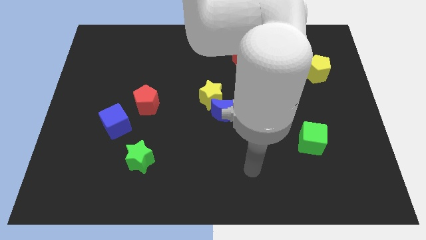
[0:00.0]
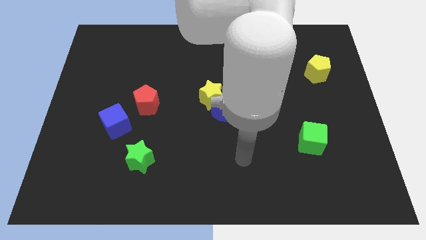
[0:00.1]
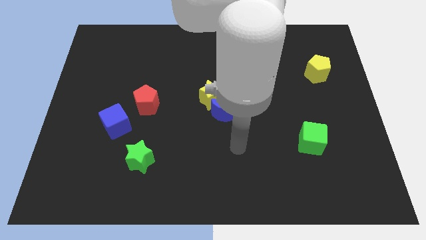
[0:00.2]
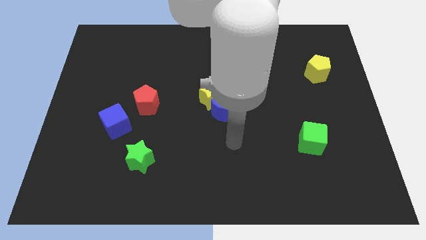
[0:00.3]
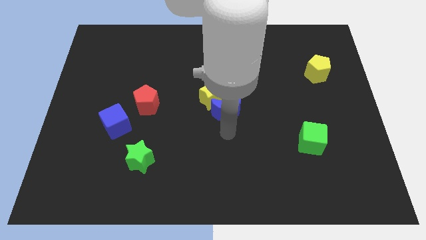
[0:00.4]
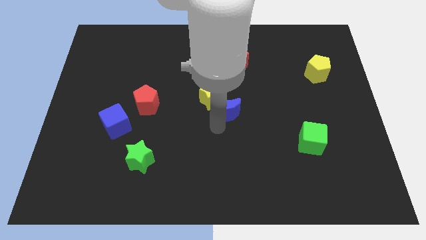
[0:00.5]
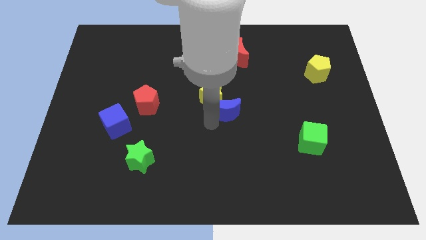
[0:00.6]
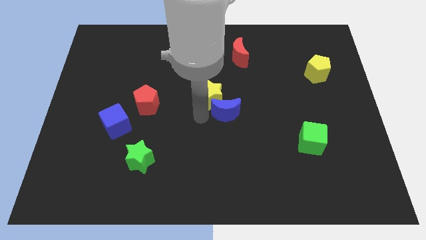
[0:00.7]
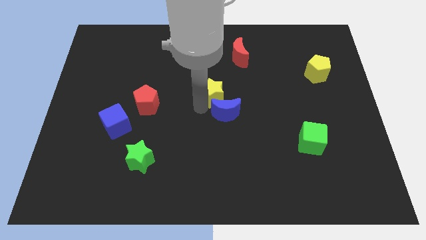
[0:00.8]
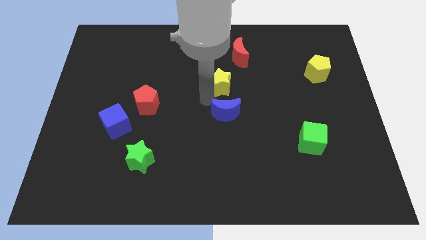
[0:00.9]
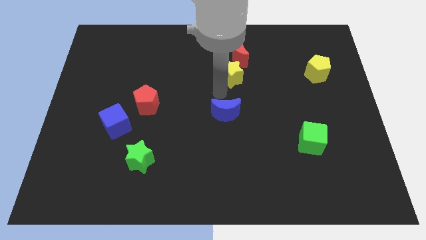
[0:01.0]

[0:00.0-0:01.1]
separate the blue moon from the yellow star

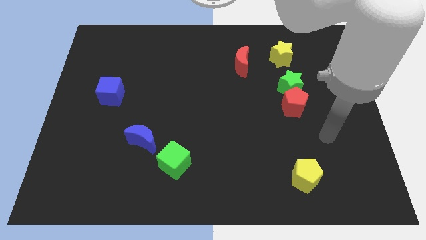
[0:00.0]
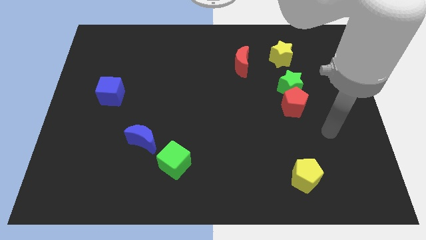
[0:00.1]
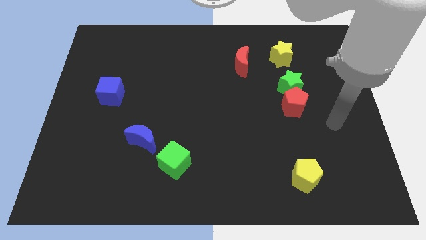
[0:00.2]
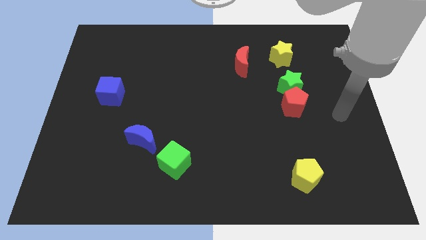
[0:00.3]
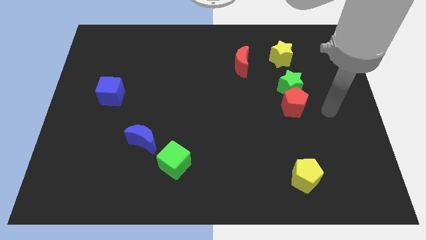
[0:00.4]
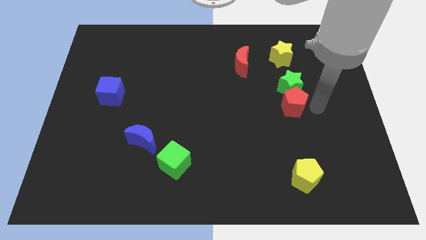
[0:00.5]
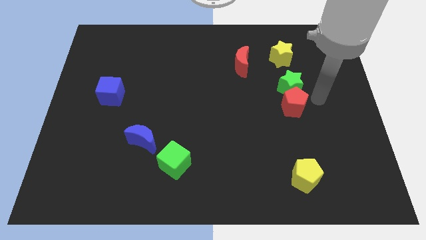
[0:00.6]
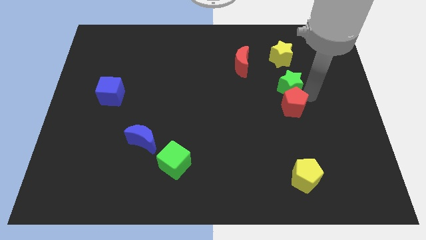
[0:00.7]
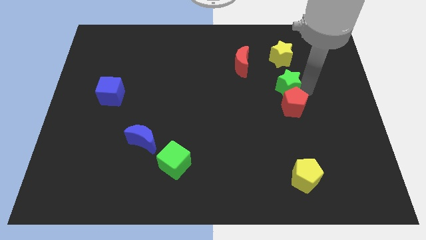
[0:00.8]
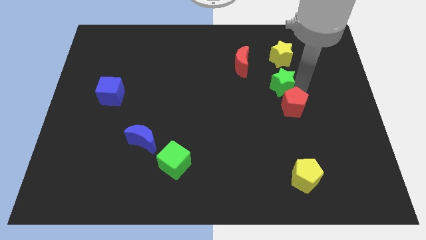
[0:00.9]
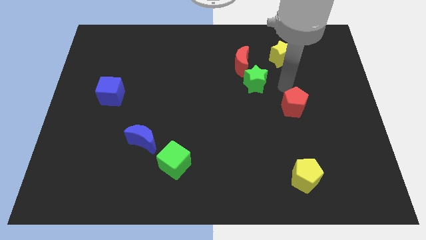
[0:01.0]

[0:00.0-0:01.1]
pull the red pentagon apart from the green star

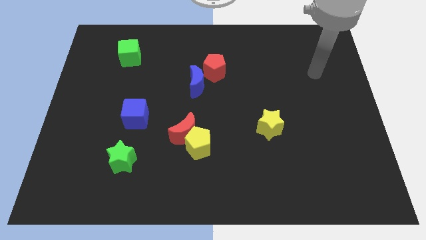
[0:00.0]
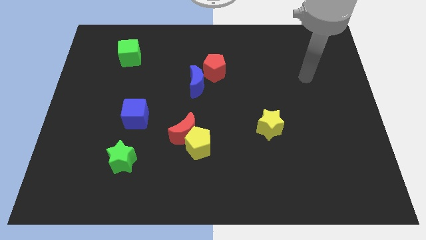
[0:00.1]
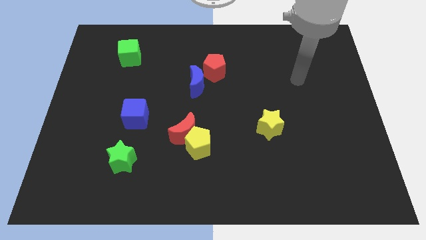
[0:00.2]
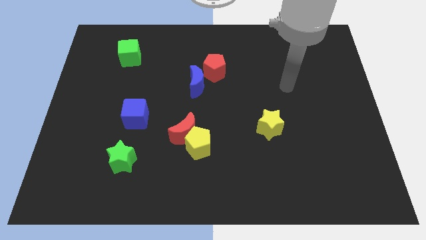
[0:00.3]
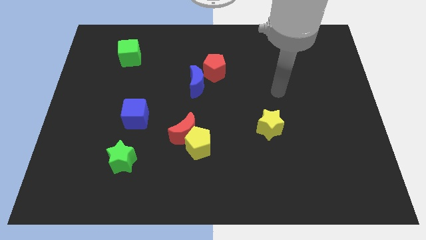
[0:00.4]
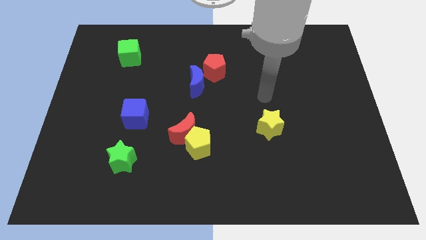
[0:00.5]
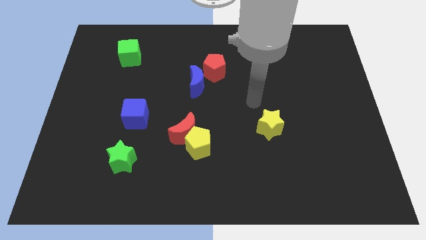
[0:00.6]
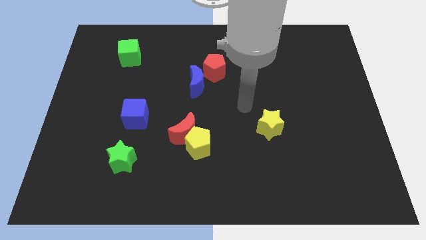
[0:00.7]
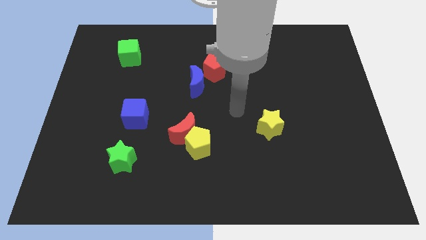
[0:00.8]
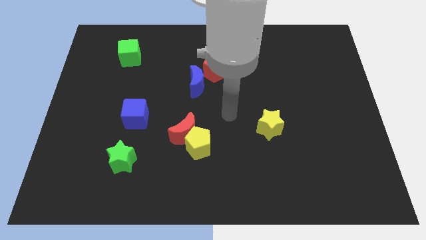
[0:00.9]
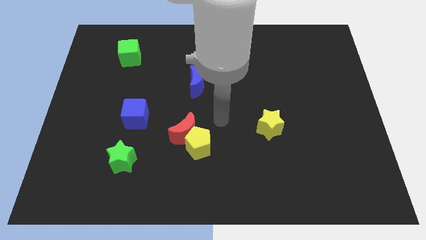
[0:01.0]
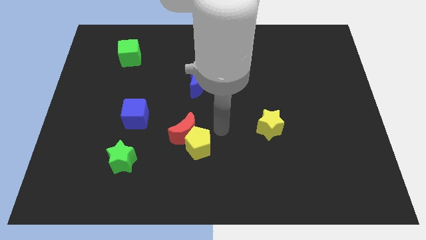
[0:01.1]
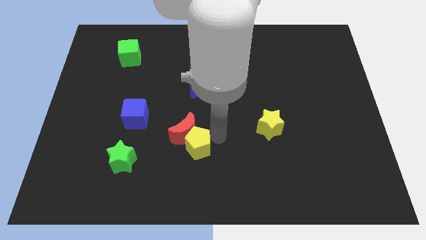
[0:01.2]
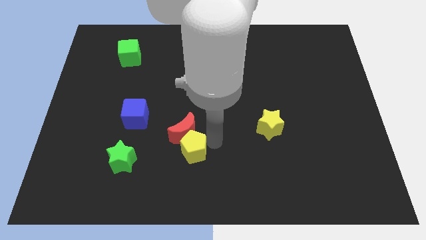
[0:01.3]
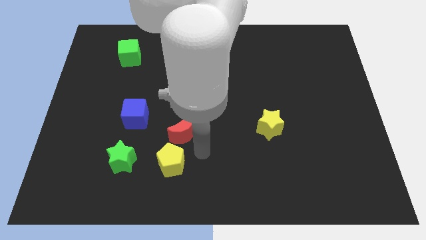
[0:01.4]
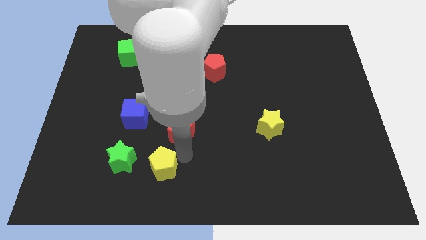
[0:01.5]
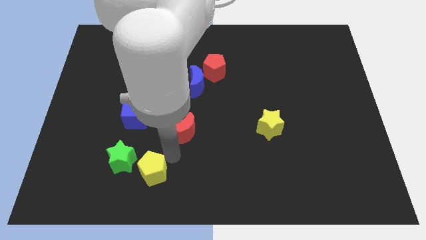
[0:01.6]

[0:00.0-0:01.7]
pull the red moon apart from the yellow pentagon

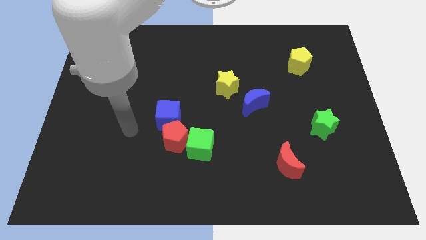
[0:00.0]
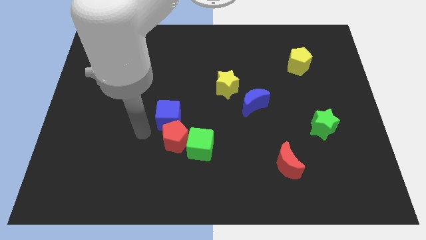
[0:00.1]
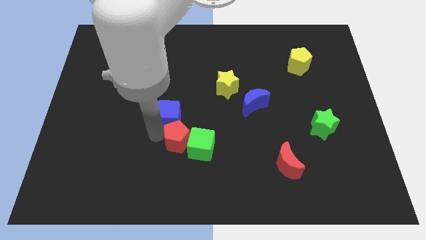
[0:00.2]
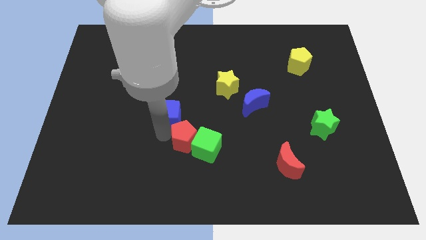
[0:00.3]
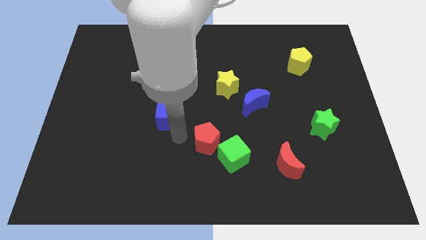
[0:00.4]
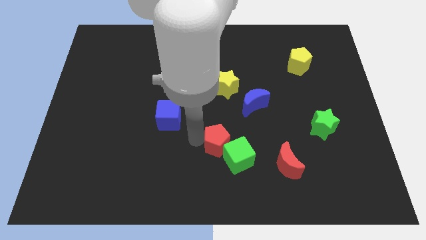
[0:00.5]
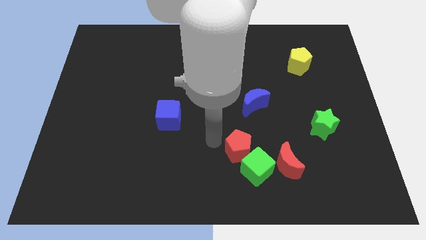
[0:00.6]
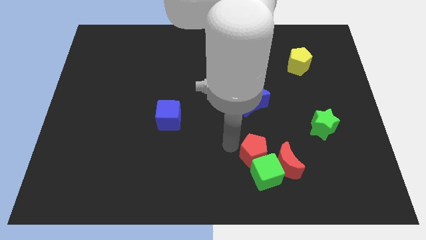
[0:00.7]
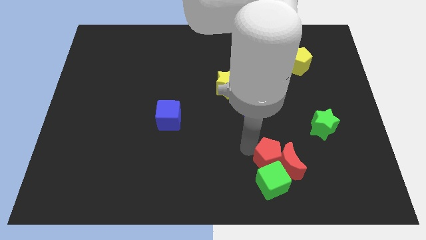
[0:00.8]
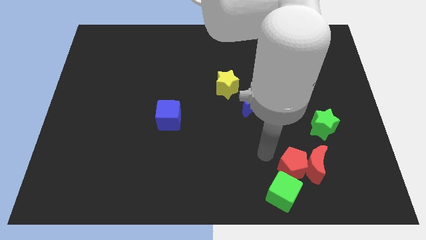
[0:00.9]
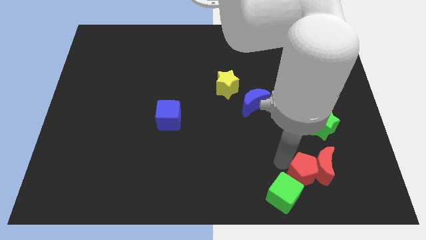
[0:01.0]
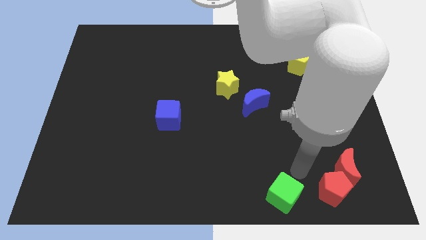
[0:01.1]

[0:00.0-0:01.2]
pull the green cube apart from the red pentagon

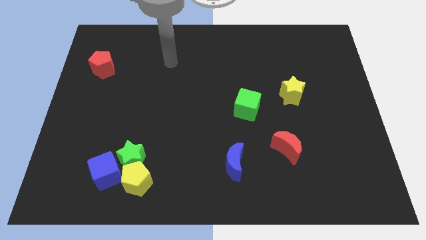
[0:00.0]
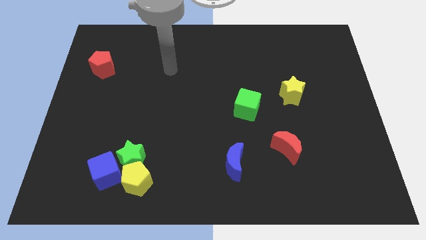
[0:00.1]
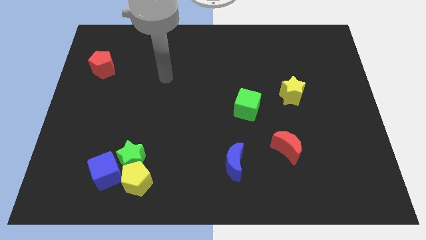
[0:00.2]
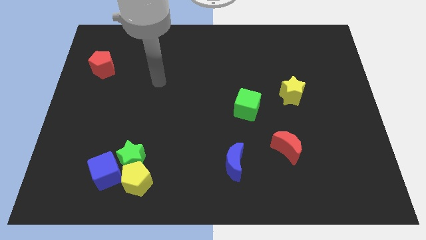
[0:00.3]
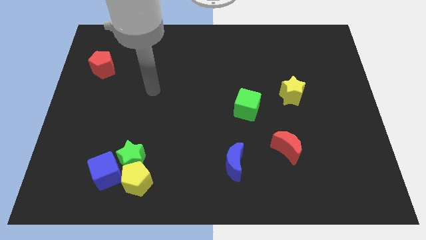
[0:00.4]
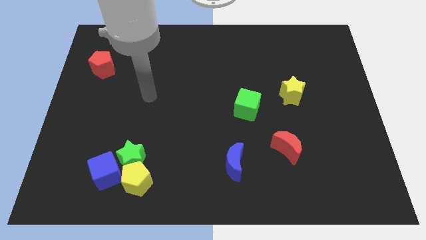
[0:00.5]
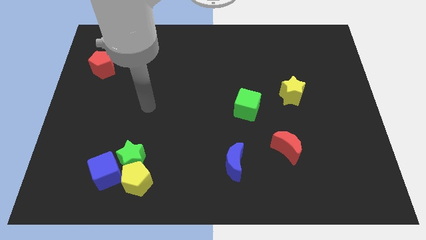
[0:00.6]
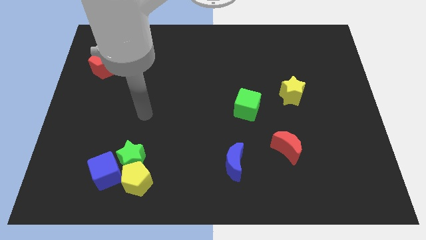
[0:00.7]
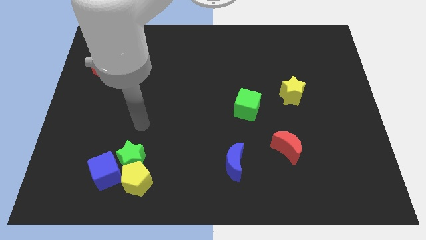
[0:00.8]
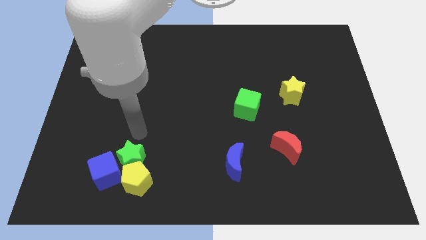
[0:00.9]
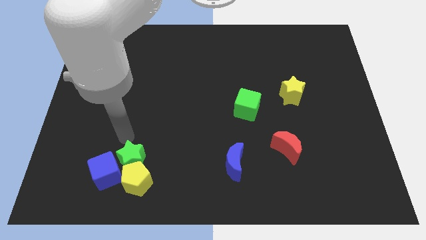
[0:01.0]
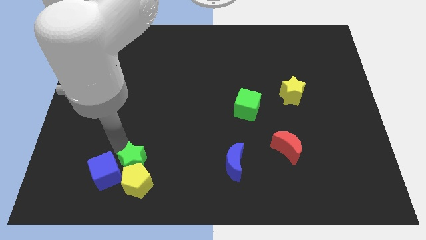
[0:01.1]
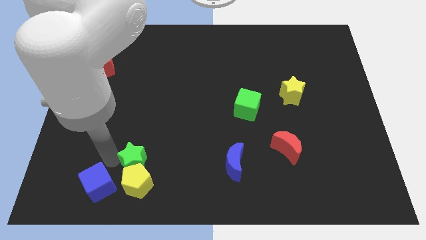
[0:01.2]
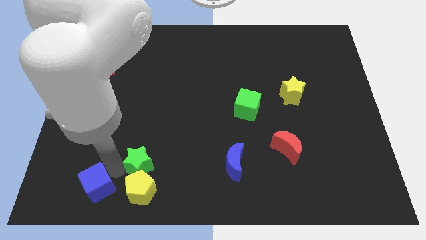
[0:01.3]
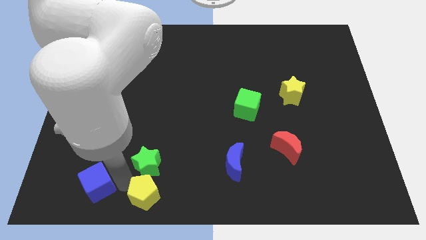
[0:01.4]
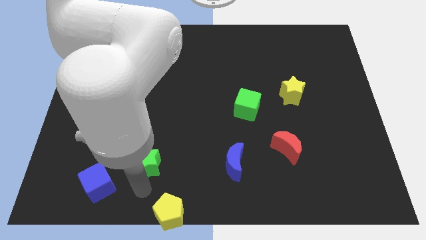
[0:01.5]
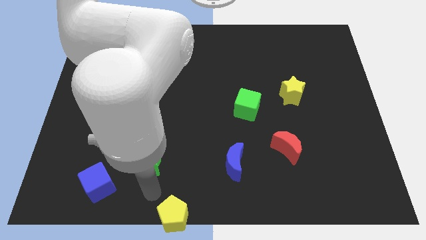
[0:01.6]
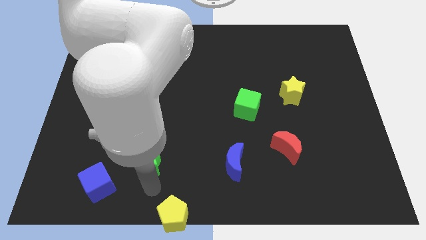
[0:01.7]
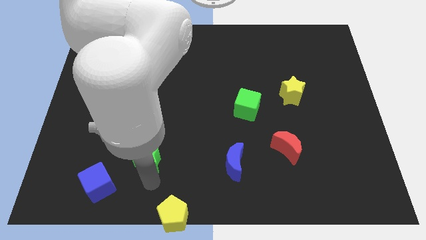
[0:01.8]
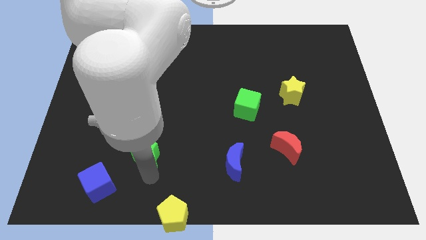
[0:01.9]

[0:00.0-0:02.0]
move the green star away from the yellow pentagon and blue cube

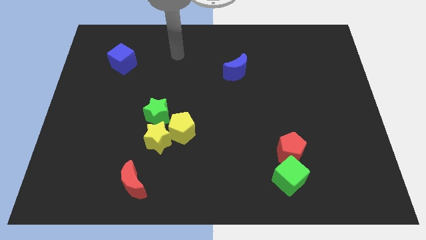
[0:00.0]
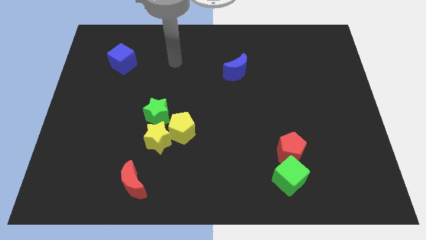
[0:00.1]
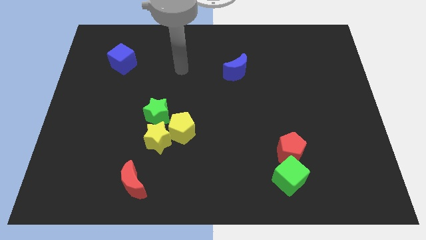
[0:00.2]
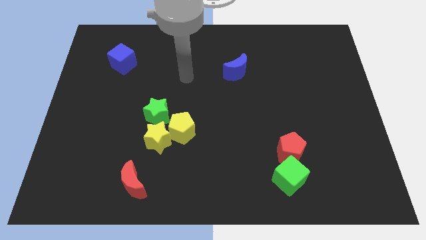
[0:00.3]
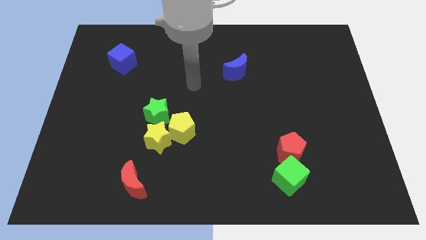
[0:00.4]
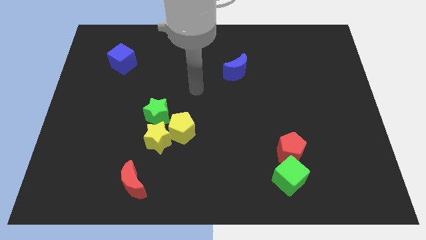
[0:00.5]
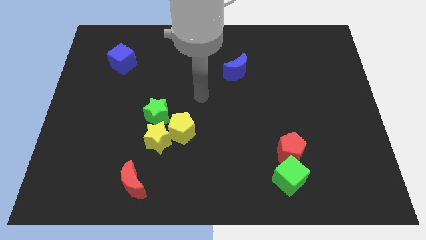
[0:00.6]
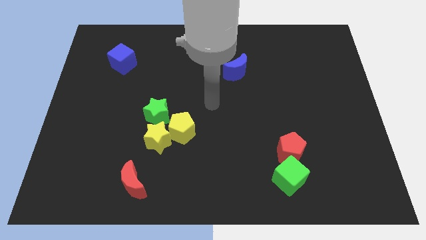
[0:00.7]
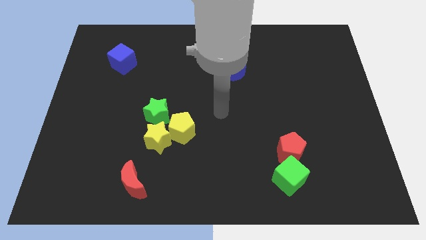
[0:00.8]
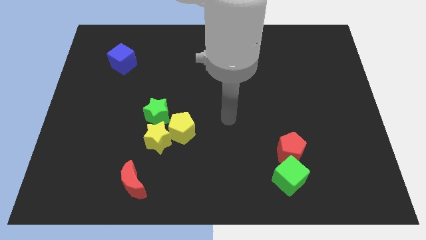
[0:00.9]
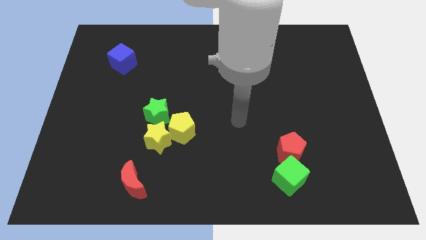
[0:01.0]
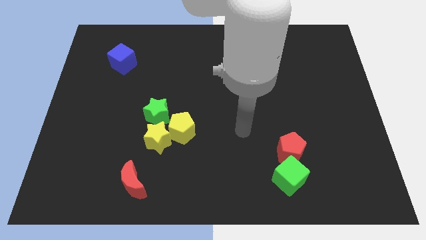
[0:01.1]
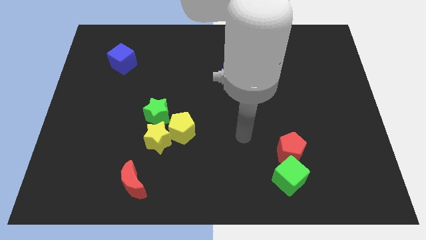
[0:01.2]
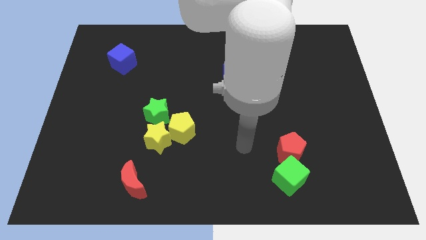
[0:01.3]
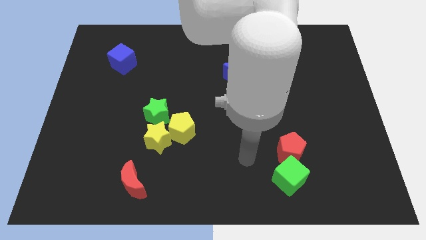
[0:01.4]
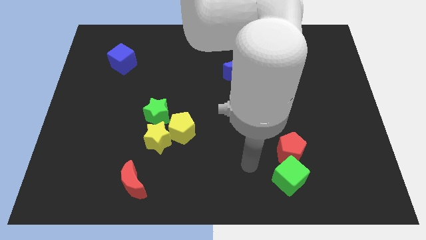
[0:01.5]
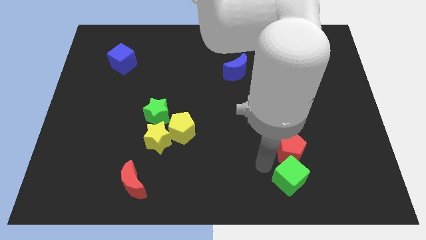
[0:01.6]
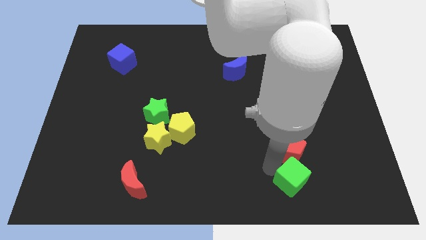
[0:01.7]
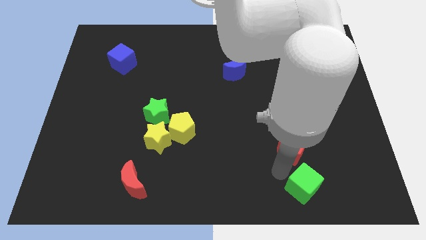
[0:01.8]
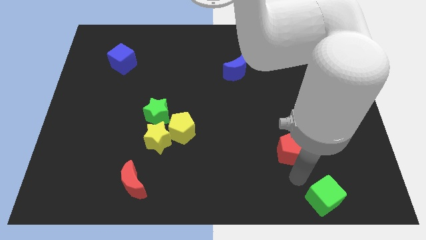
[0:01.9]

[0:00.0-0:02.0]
move the red pentagon away from the green cube

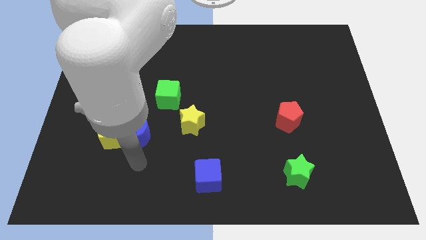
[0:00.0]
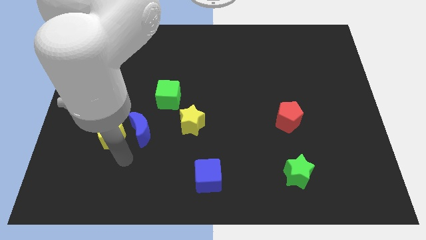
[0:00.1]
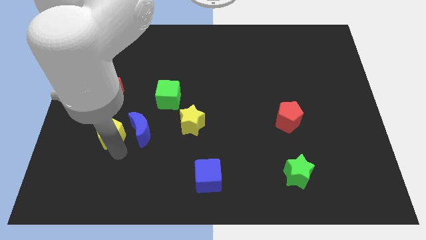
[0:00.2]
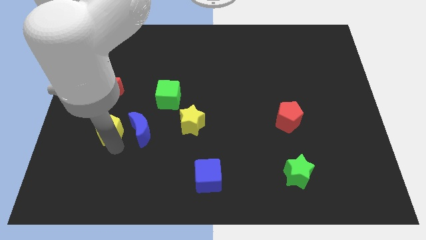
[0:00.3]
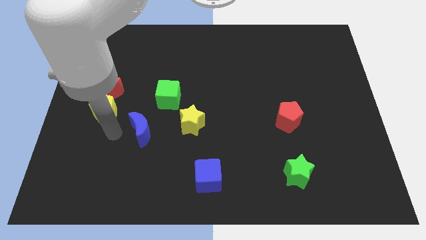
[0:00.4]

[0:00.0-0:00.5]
separate the blue moon from the yellow pentagon
